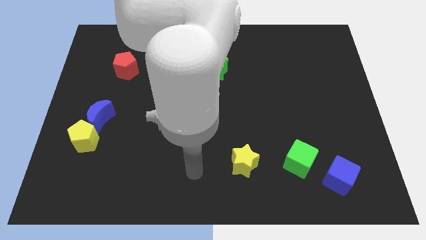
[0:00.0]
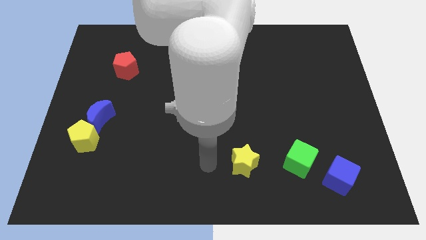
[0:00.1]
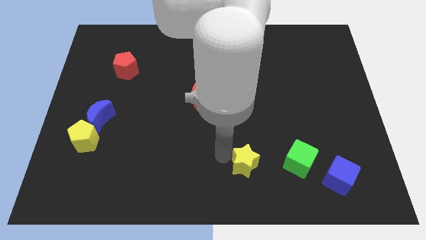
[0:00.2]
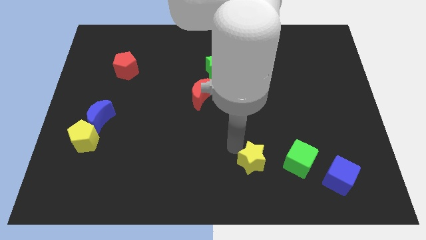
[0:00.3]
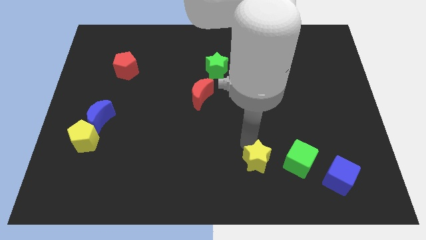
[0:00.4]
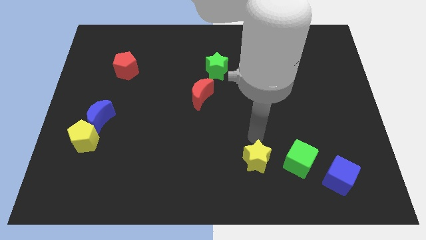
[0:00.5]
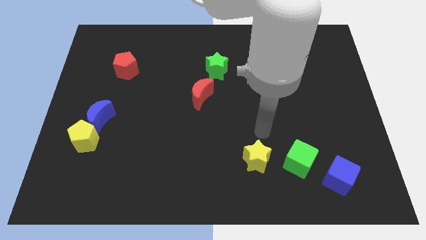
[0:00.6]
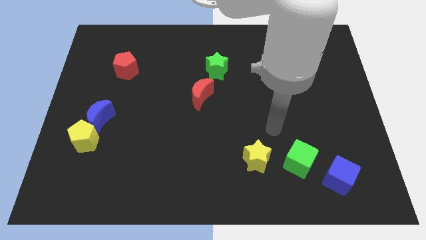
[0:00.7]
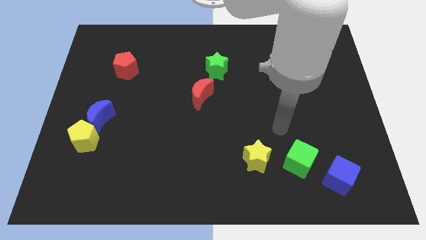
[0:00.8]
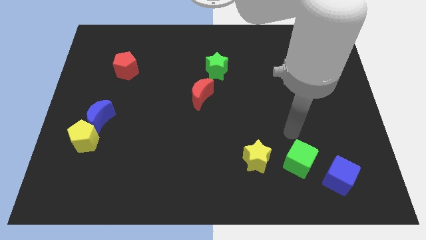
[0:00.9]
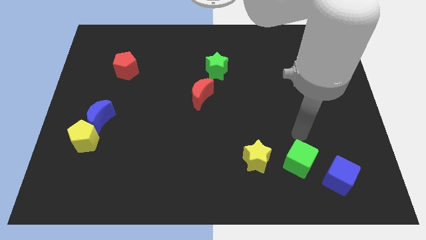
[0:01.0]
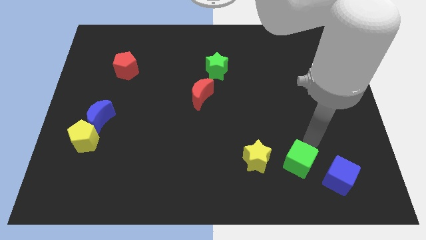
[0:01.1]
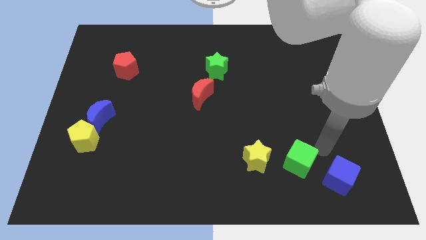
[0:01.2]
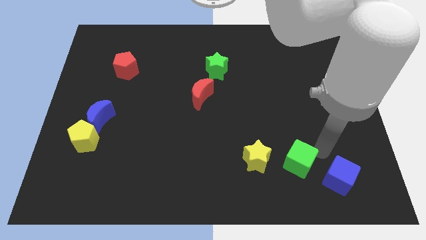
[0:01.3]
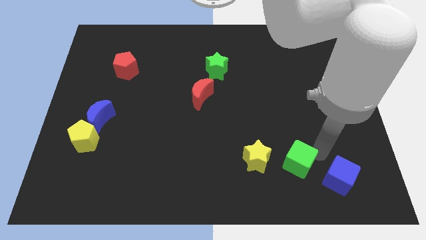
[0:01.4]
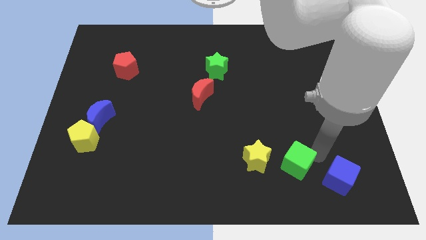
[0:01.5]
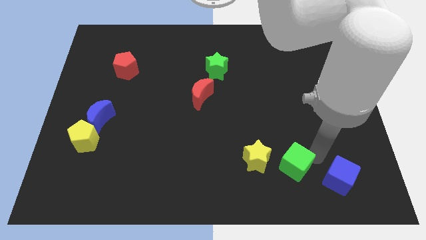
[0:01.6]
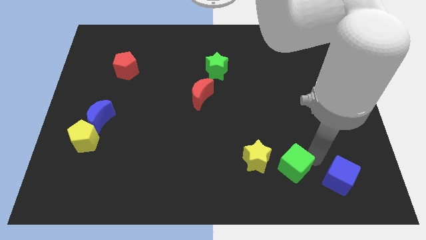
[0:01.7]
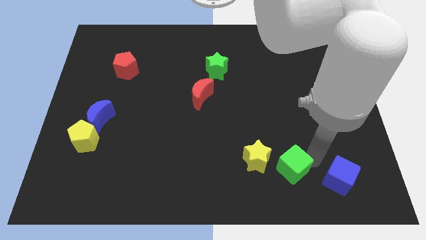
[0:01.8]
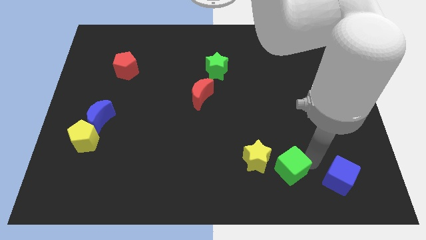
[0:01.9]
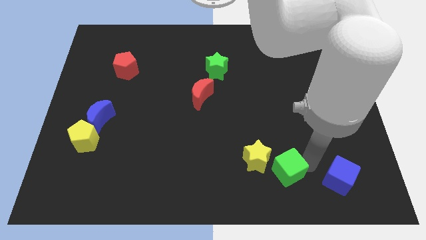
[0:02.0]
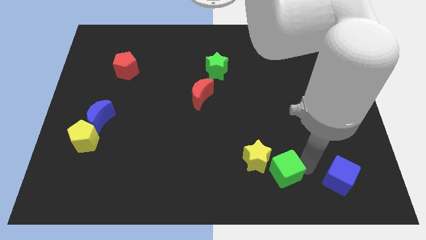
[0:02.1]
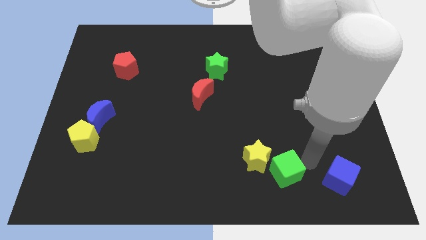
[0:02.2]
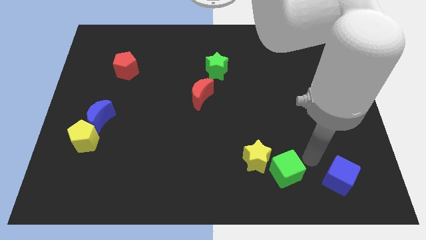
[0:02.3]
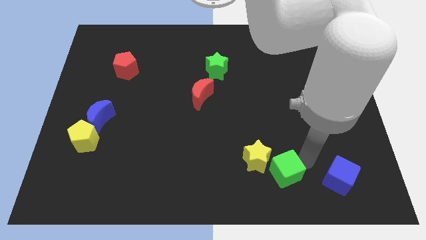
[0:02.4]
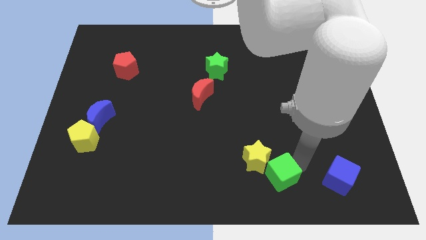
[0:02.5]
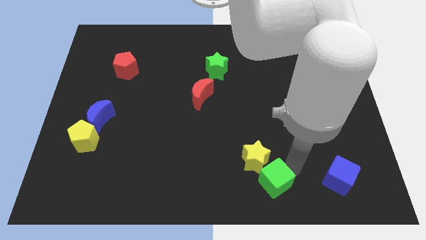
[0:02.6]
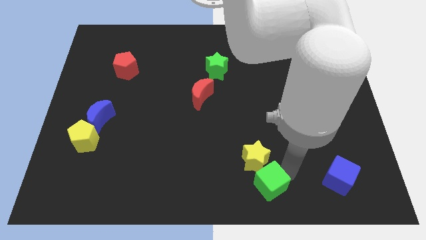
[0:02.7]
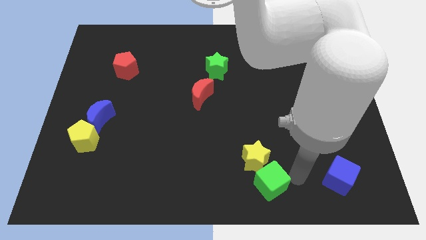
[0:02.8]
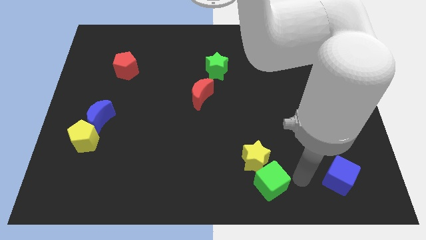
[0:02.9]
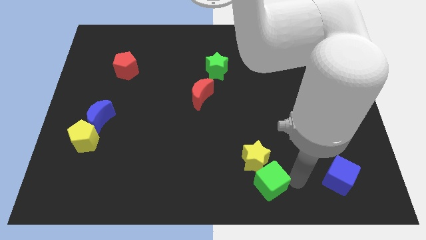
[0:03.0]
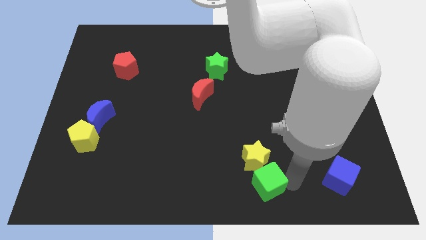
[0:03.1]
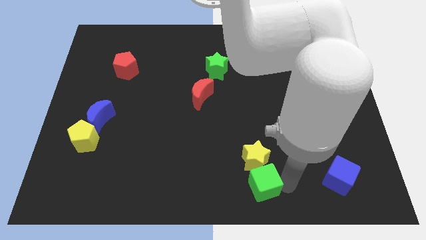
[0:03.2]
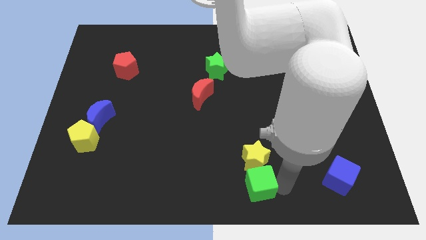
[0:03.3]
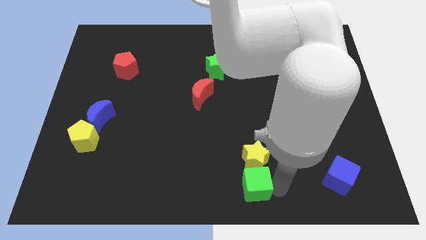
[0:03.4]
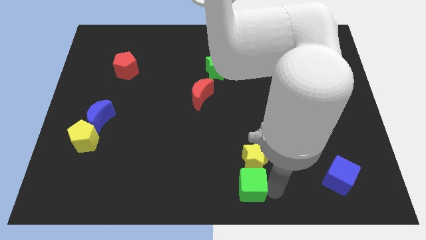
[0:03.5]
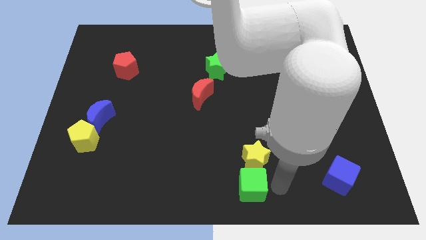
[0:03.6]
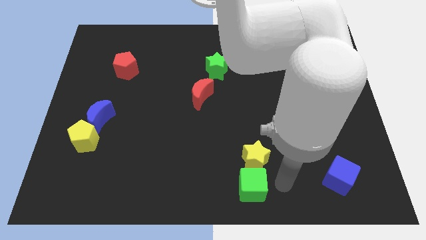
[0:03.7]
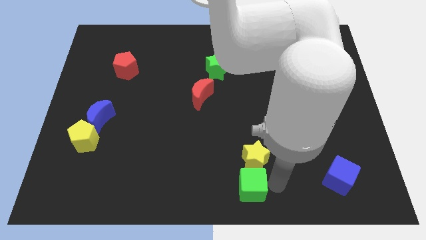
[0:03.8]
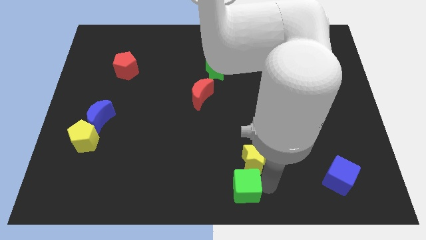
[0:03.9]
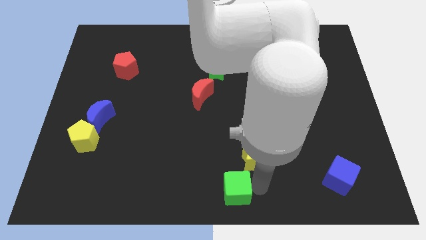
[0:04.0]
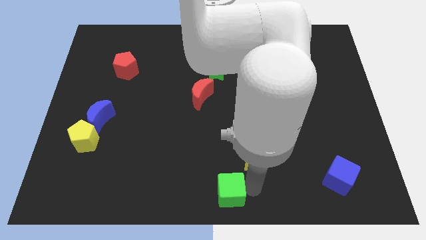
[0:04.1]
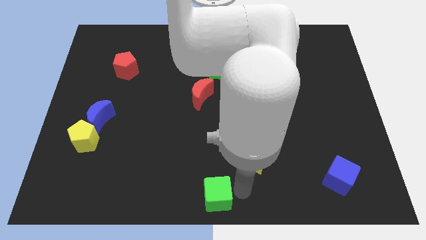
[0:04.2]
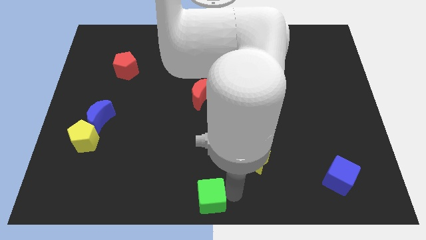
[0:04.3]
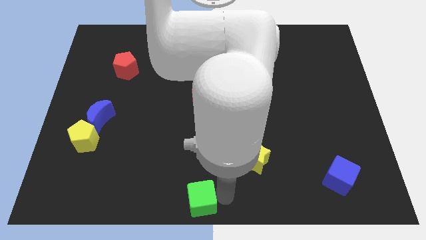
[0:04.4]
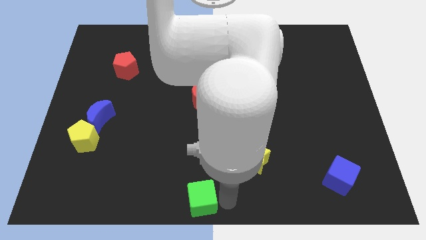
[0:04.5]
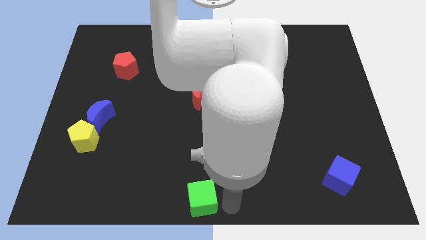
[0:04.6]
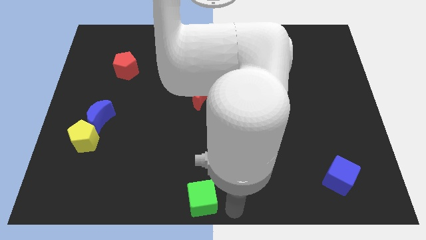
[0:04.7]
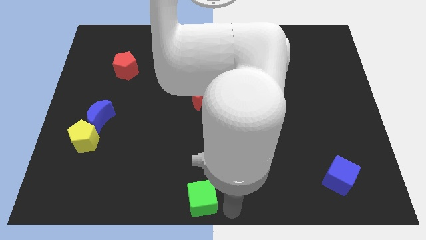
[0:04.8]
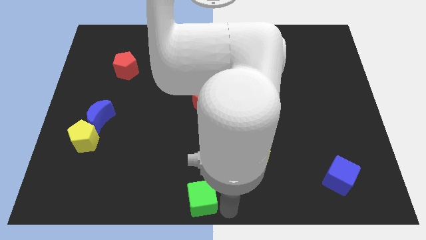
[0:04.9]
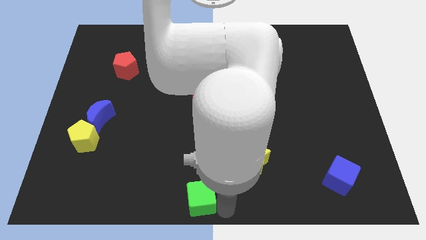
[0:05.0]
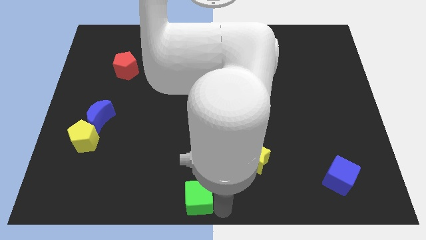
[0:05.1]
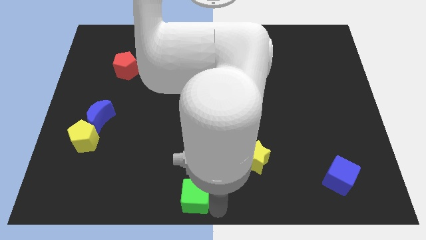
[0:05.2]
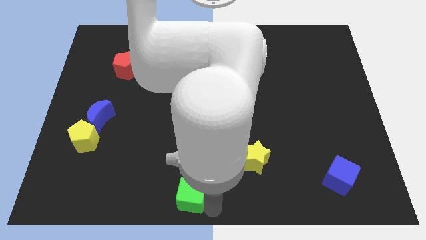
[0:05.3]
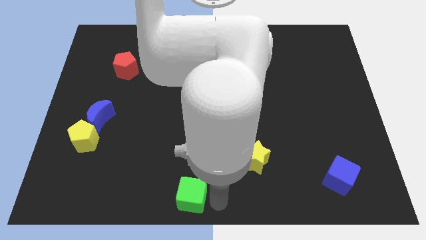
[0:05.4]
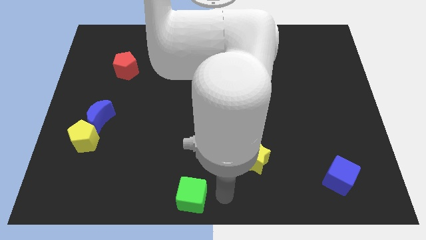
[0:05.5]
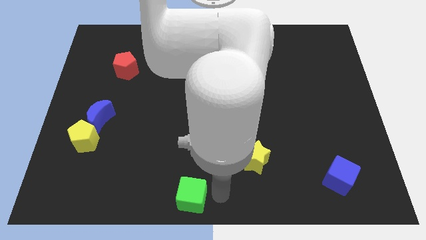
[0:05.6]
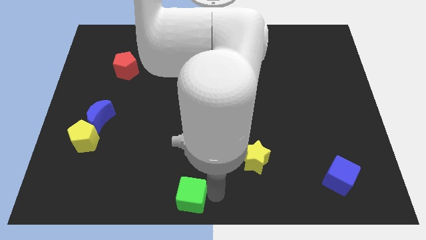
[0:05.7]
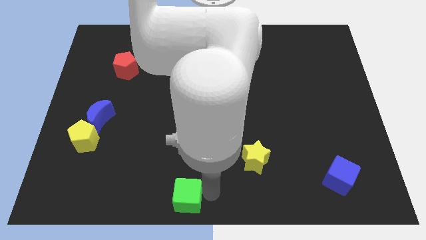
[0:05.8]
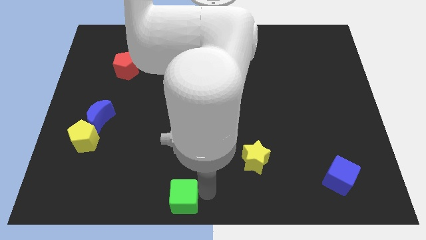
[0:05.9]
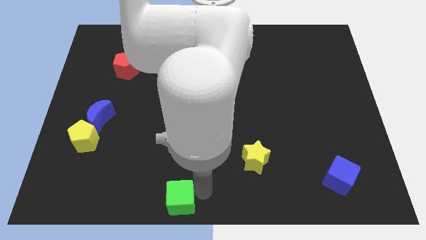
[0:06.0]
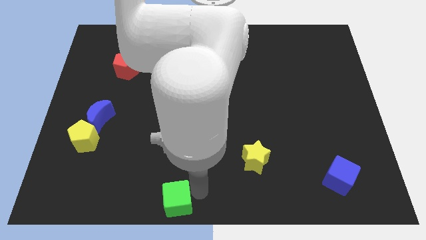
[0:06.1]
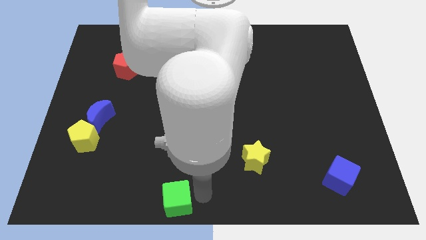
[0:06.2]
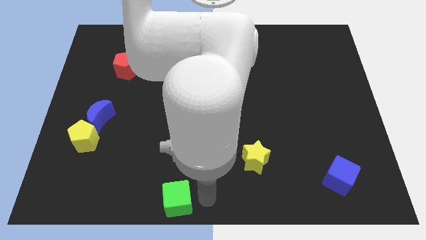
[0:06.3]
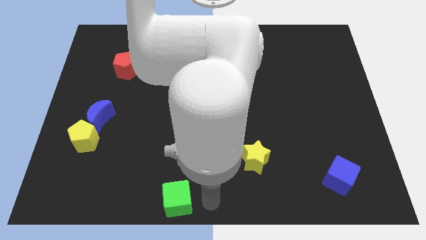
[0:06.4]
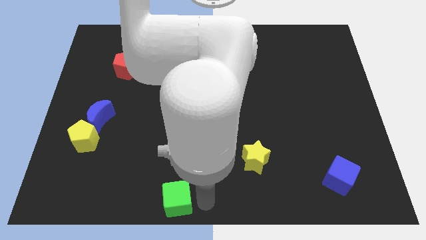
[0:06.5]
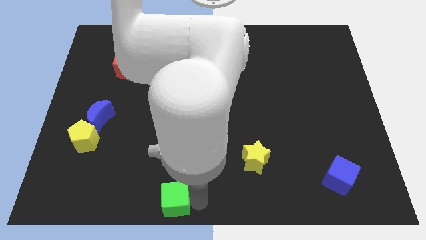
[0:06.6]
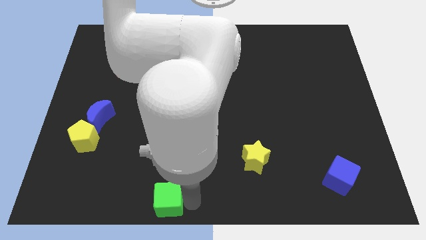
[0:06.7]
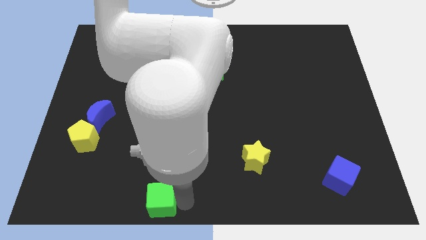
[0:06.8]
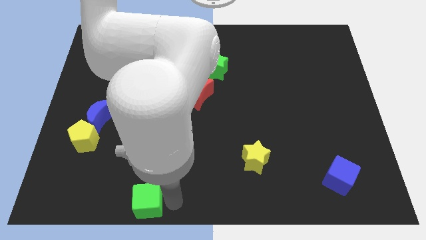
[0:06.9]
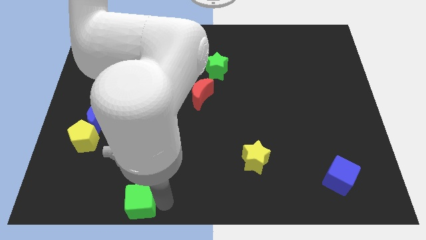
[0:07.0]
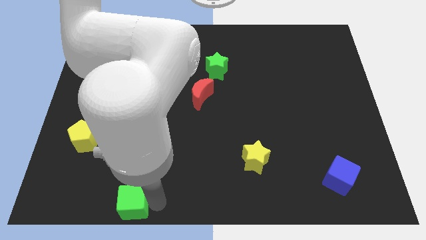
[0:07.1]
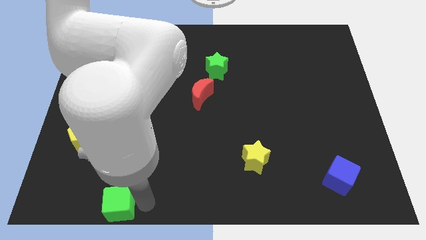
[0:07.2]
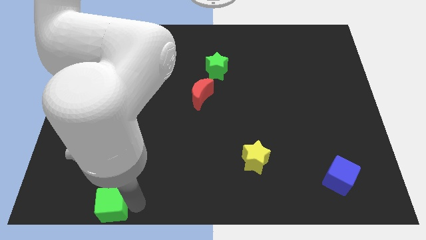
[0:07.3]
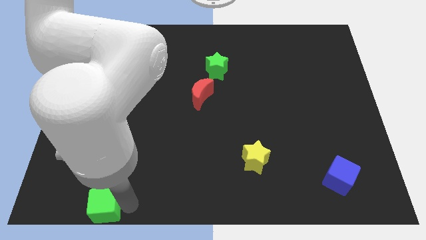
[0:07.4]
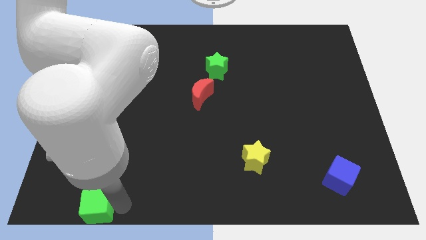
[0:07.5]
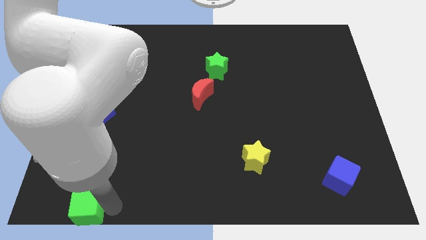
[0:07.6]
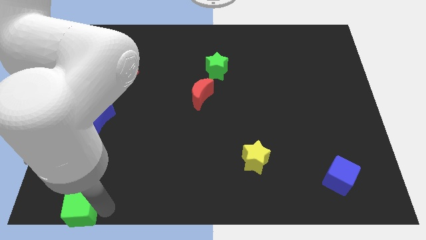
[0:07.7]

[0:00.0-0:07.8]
move the green cube to the lower left corner
